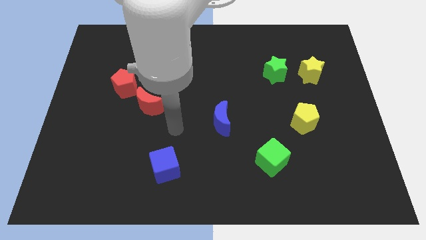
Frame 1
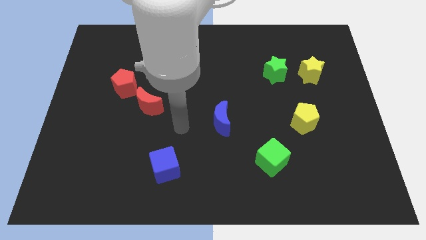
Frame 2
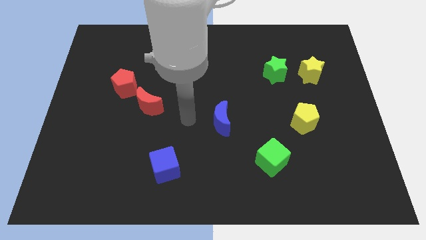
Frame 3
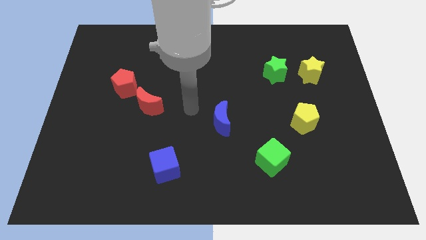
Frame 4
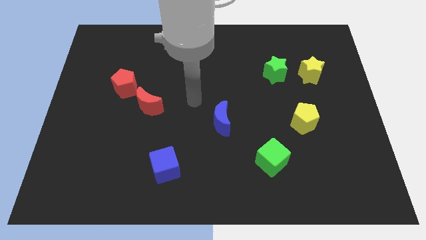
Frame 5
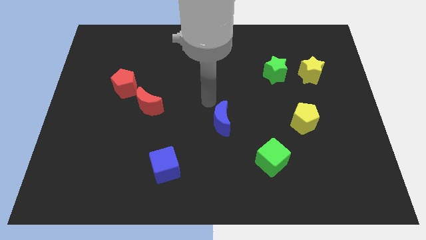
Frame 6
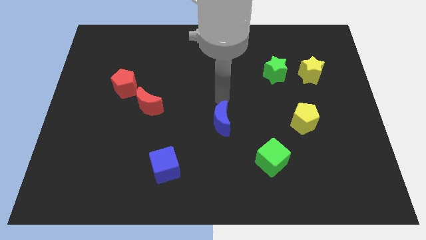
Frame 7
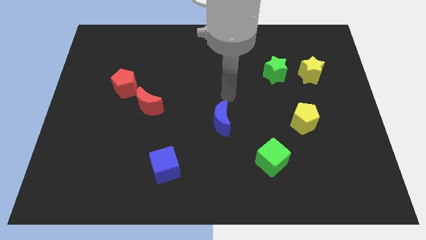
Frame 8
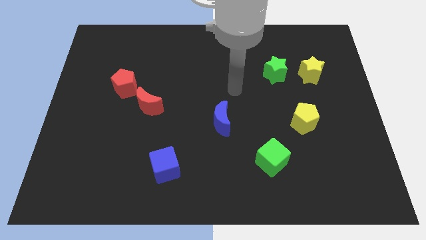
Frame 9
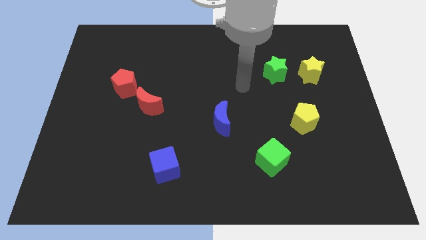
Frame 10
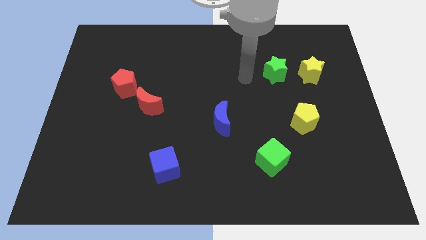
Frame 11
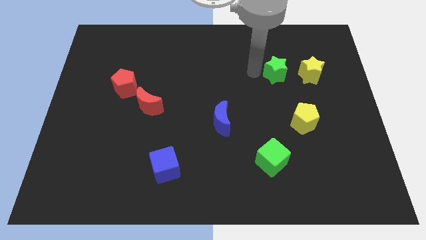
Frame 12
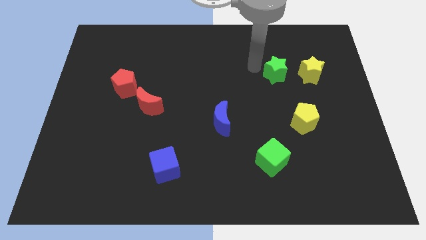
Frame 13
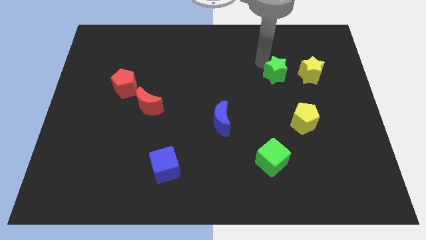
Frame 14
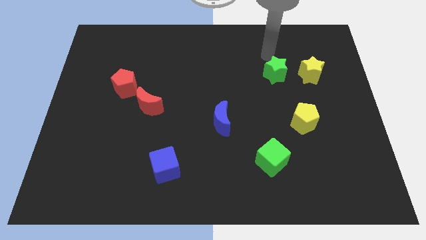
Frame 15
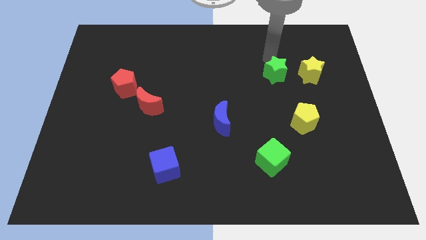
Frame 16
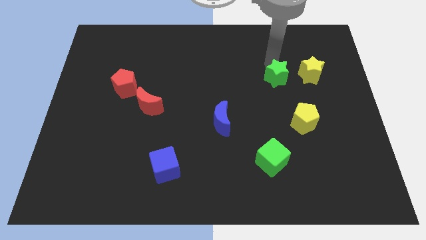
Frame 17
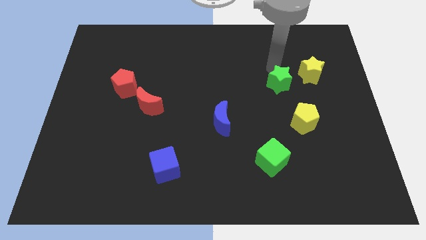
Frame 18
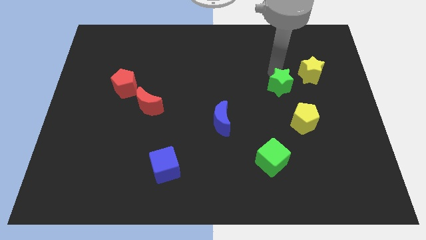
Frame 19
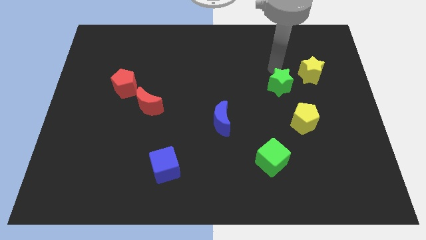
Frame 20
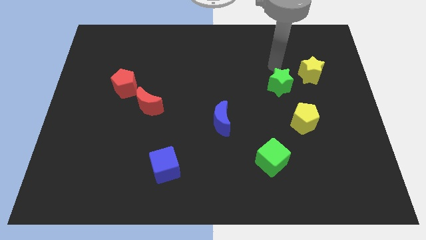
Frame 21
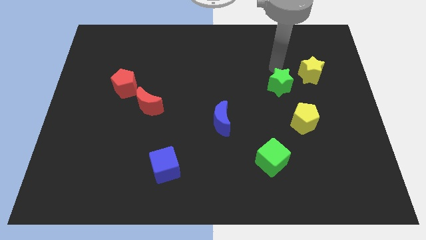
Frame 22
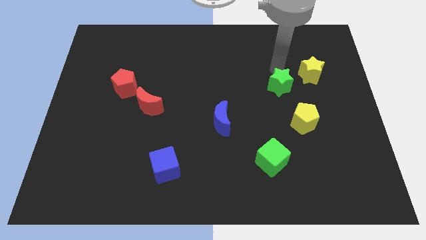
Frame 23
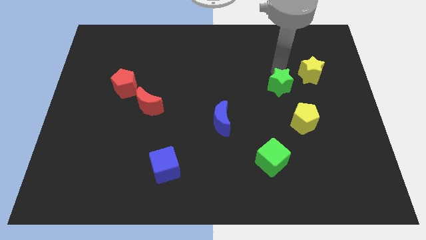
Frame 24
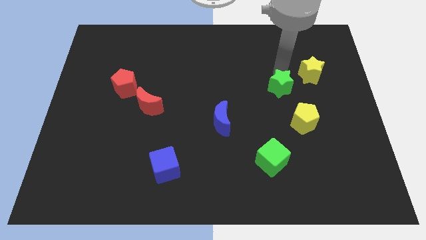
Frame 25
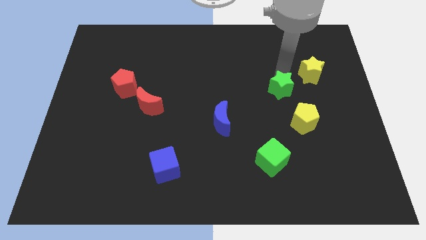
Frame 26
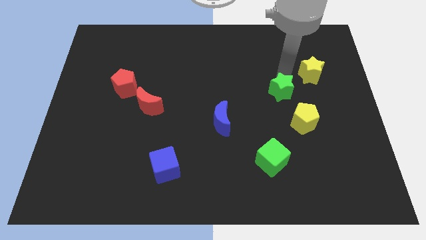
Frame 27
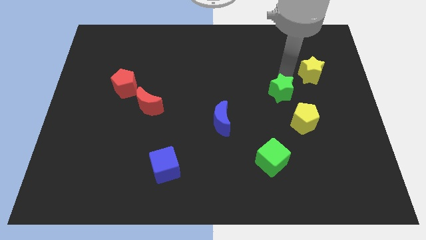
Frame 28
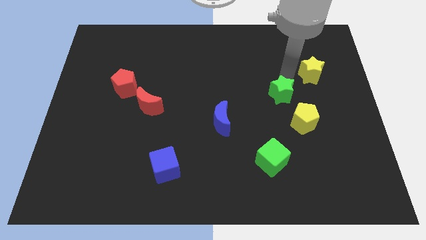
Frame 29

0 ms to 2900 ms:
move the green star downwards somewhat

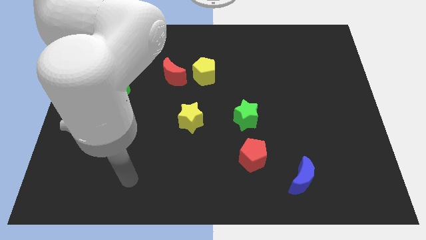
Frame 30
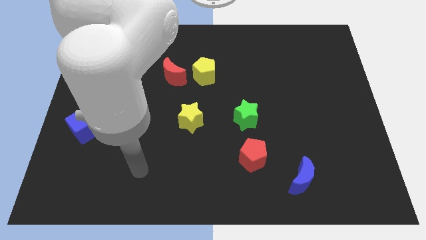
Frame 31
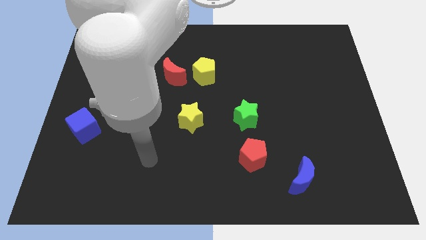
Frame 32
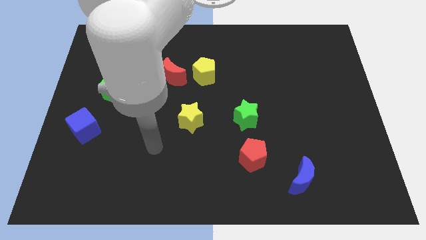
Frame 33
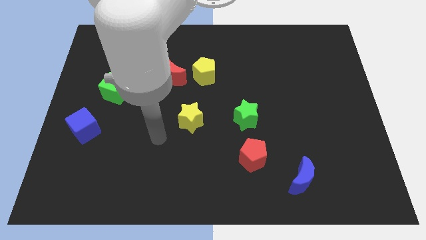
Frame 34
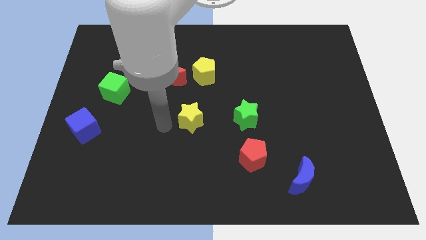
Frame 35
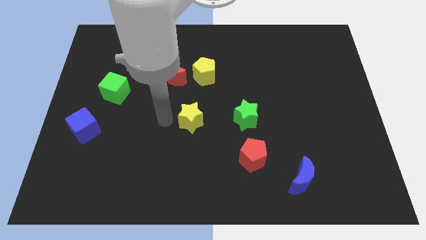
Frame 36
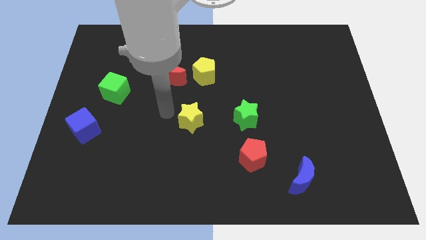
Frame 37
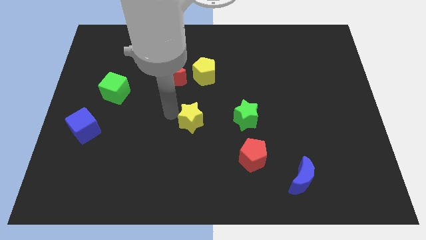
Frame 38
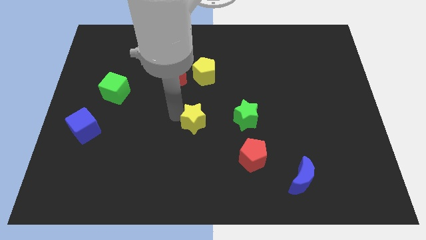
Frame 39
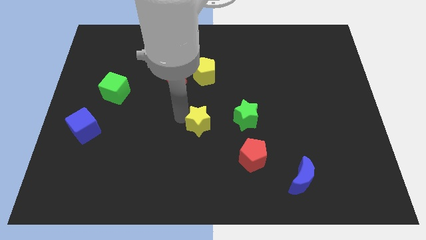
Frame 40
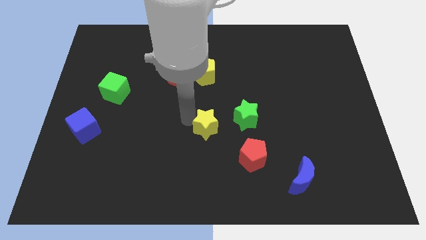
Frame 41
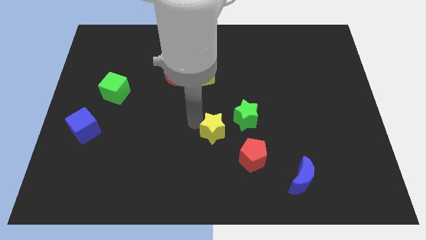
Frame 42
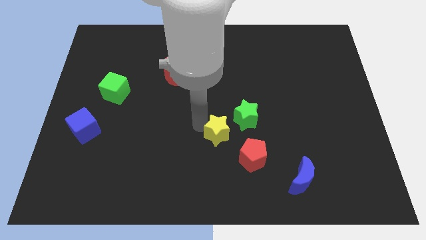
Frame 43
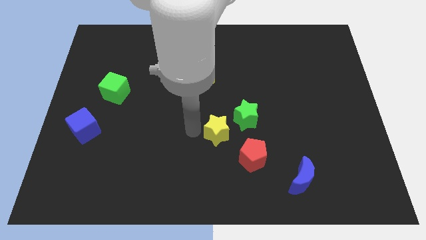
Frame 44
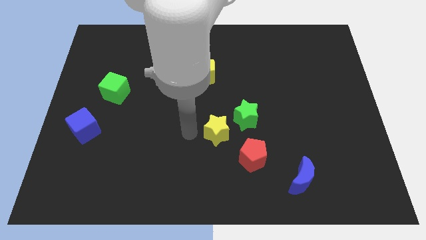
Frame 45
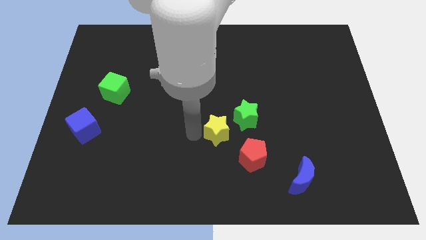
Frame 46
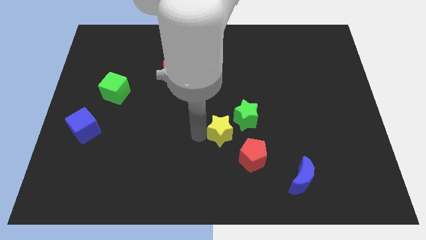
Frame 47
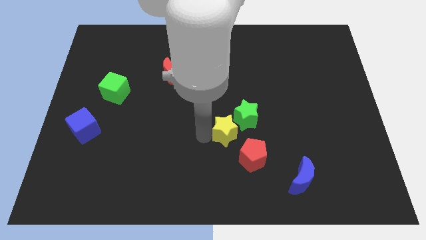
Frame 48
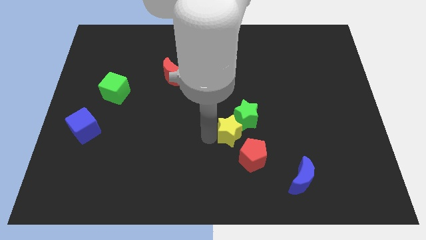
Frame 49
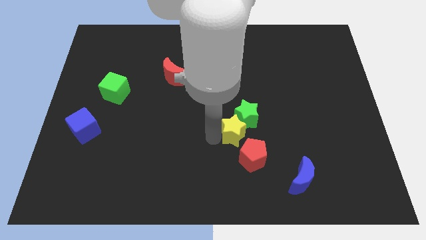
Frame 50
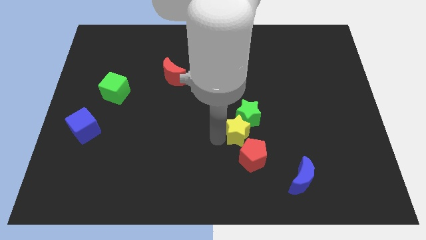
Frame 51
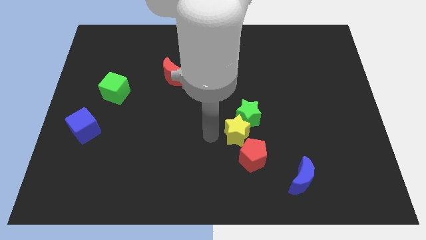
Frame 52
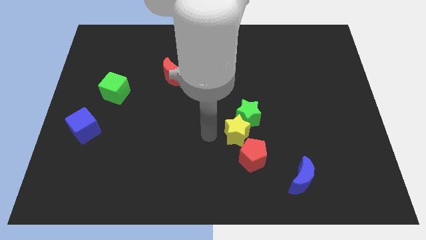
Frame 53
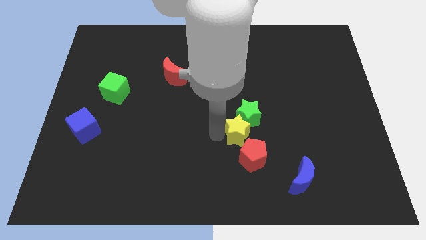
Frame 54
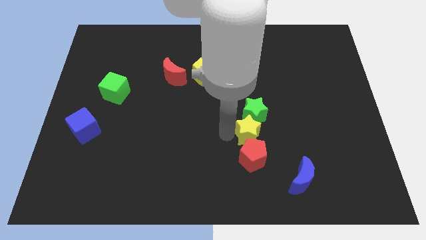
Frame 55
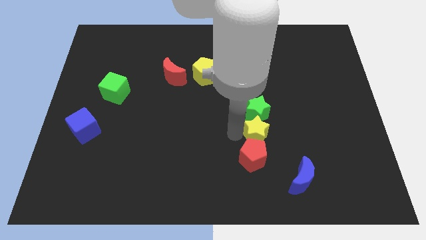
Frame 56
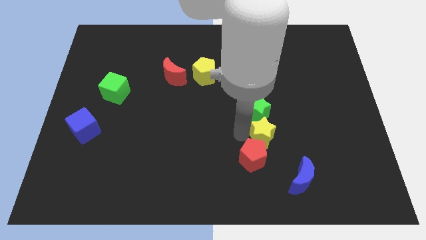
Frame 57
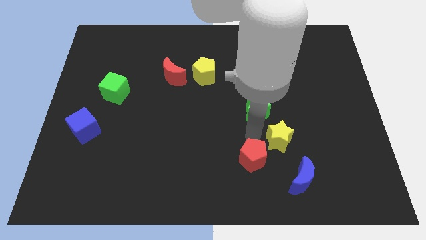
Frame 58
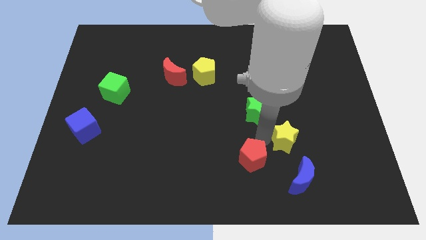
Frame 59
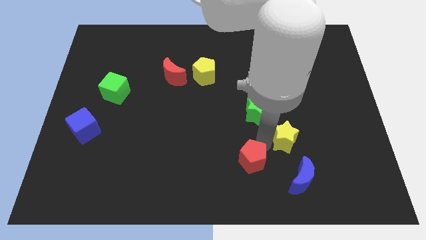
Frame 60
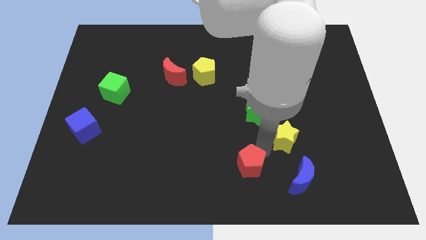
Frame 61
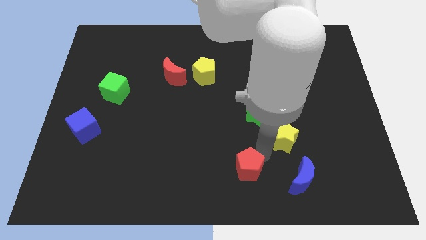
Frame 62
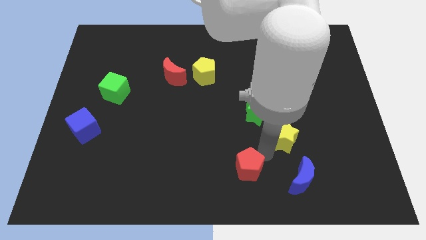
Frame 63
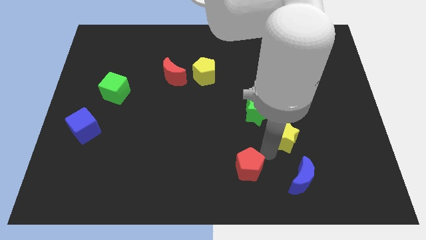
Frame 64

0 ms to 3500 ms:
move the yellow star to the right

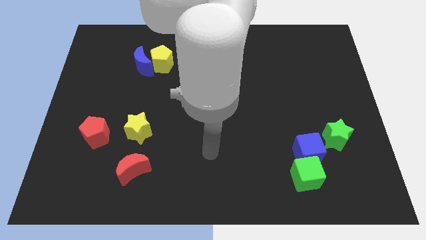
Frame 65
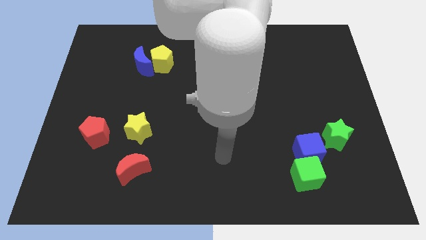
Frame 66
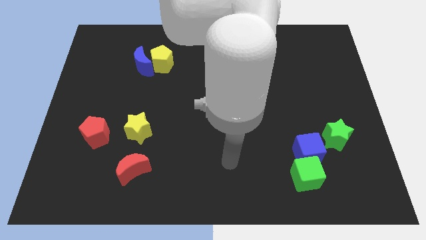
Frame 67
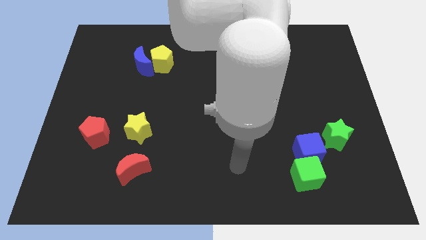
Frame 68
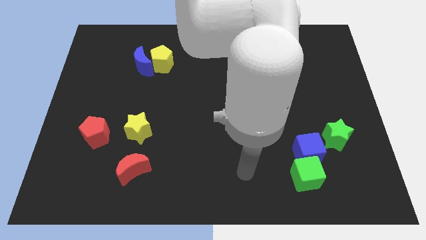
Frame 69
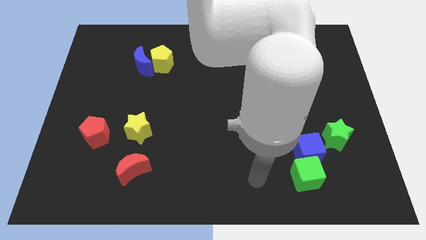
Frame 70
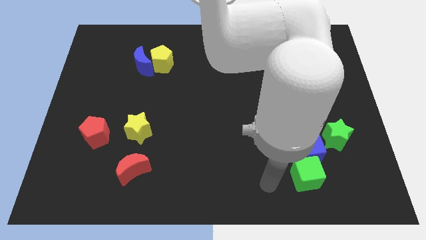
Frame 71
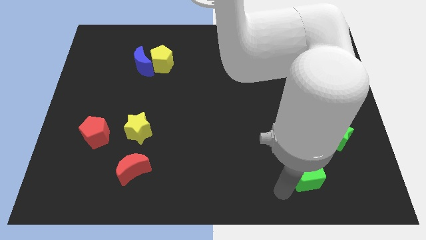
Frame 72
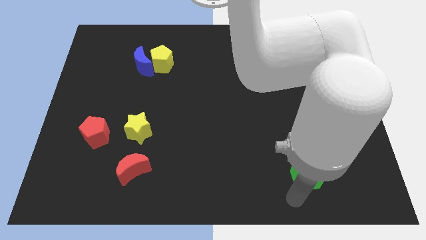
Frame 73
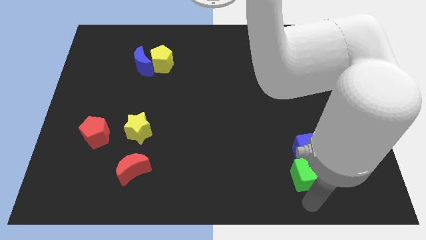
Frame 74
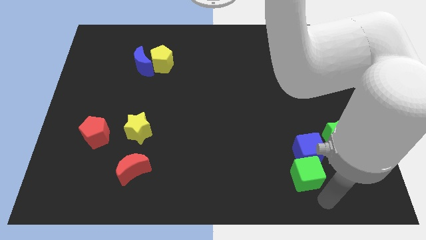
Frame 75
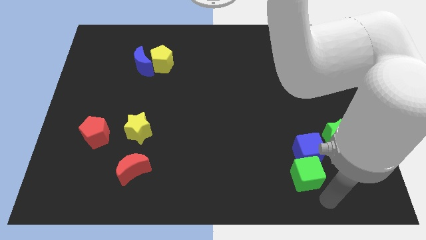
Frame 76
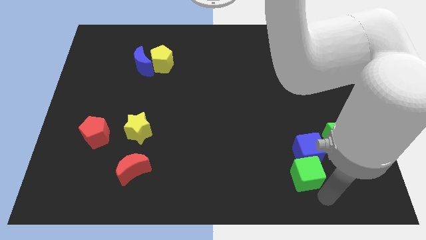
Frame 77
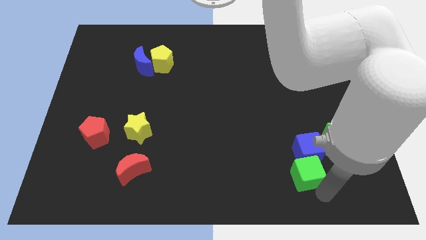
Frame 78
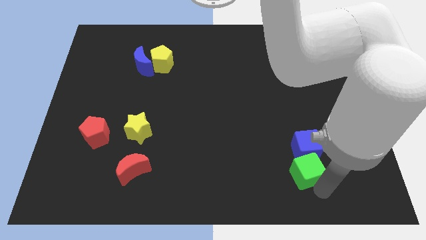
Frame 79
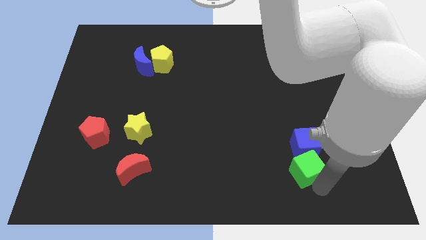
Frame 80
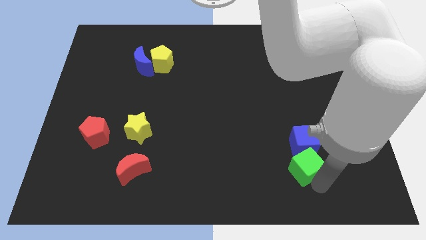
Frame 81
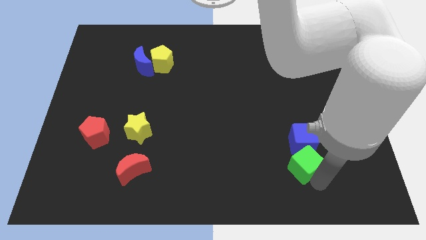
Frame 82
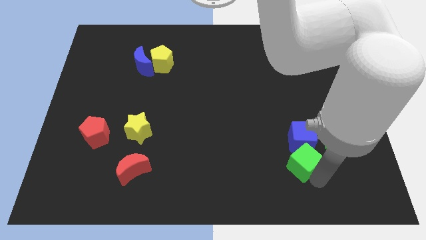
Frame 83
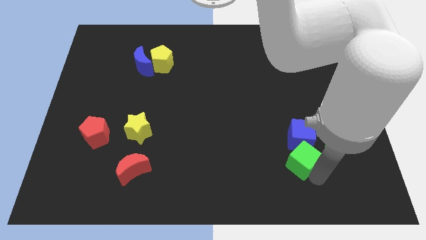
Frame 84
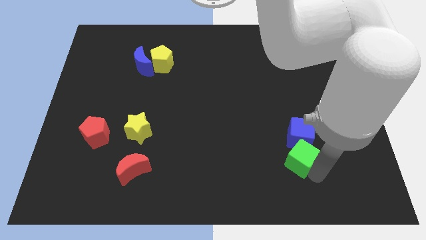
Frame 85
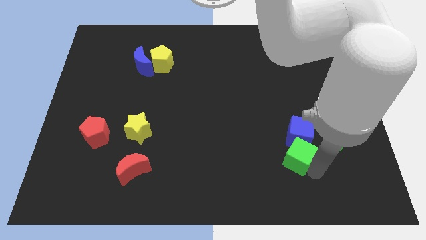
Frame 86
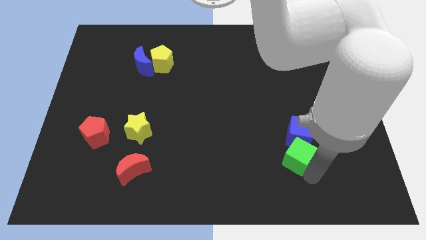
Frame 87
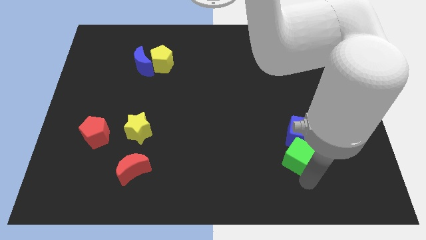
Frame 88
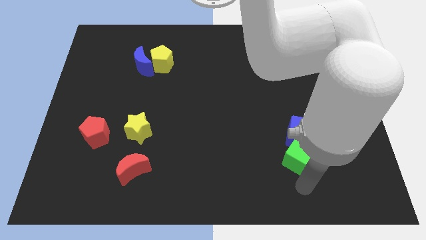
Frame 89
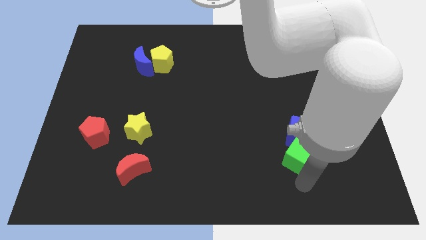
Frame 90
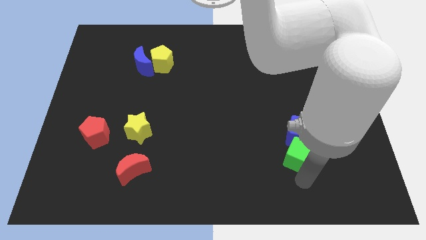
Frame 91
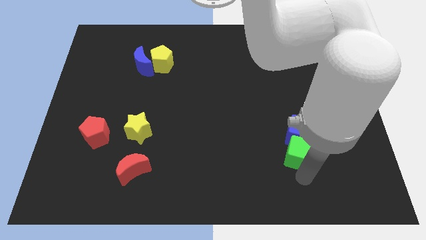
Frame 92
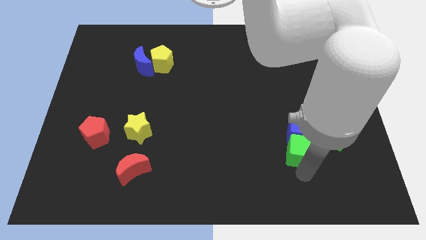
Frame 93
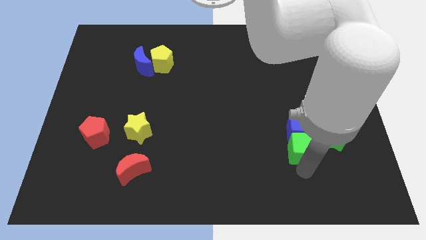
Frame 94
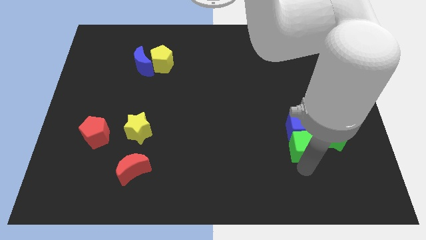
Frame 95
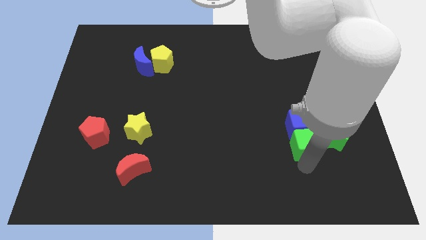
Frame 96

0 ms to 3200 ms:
move the green cube slightly up
